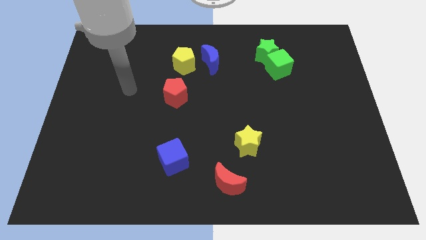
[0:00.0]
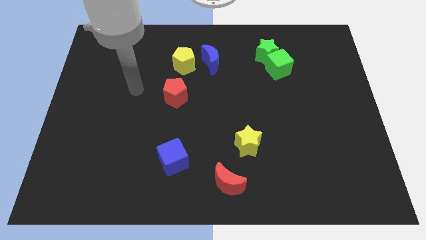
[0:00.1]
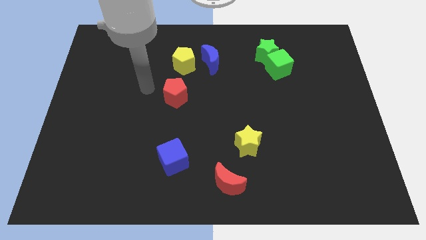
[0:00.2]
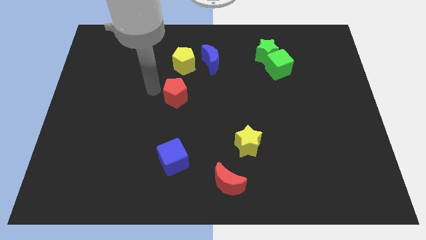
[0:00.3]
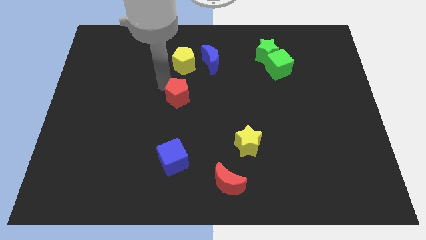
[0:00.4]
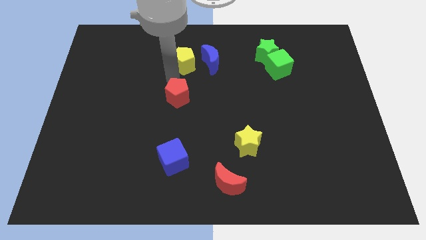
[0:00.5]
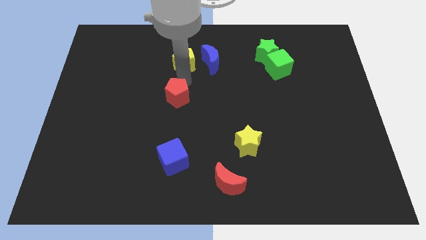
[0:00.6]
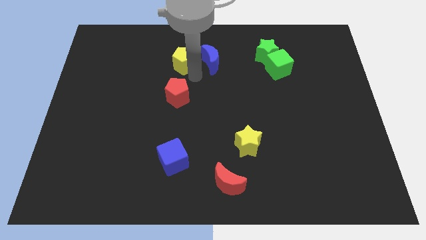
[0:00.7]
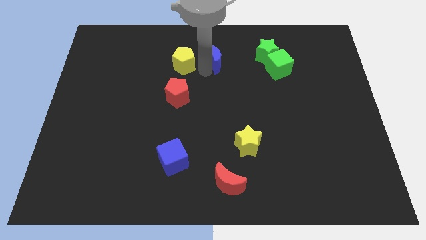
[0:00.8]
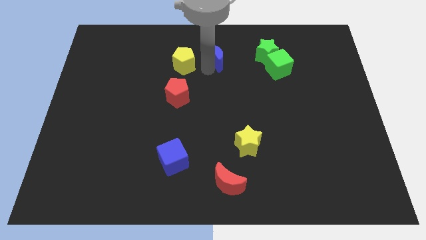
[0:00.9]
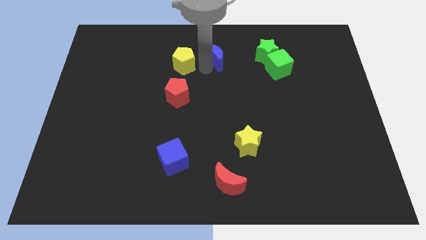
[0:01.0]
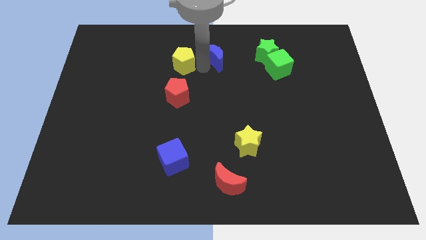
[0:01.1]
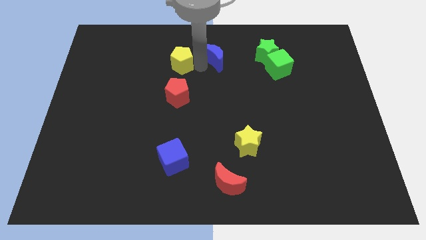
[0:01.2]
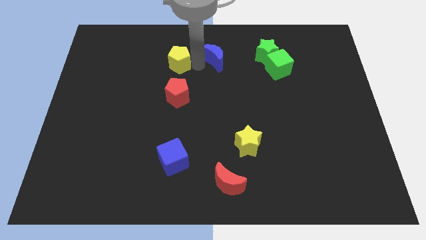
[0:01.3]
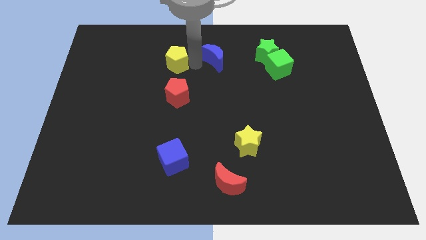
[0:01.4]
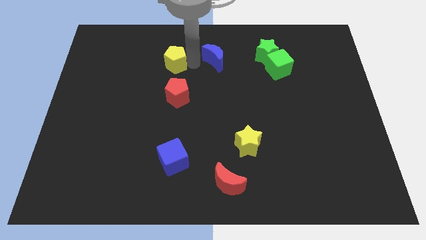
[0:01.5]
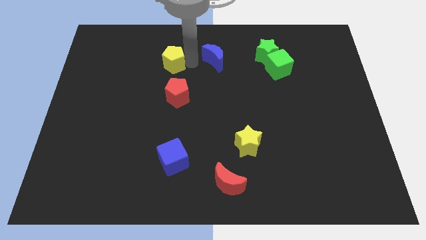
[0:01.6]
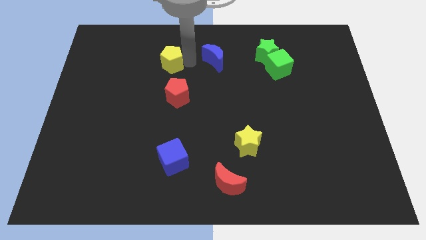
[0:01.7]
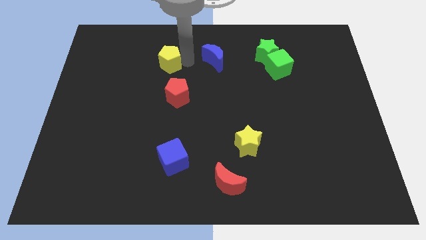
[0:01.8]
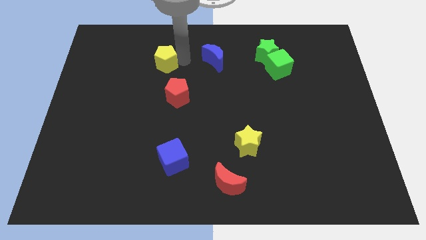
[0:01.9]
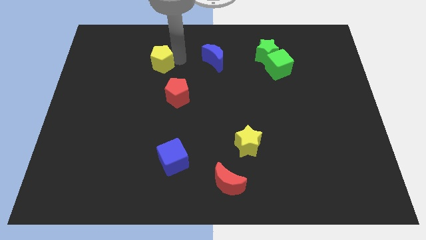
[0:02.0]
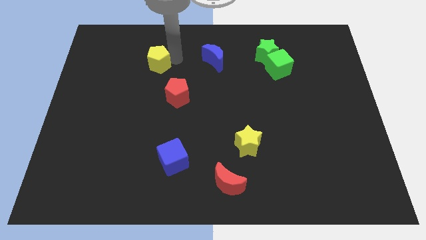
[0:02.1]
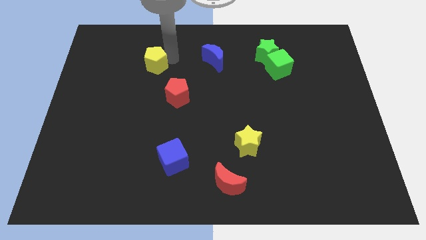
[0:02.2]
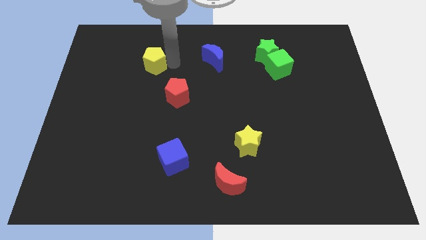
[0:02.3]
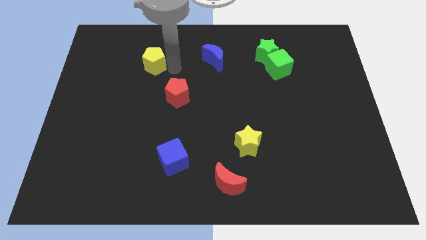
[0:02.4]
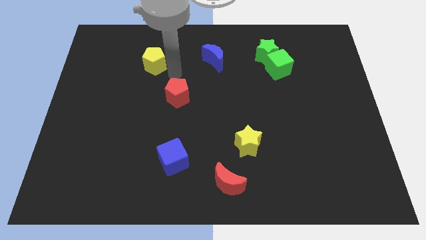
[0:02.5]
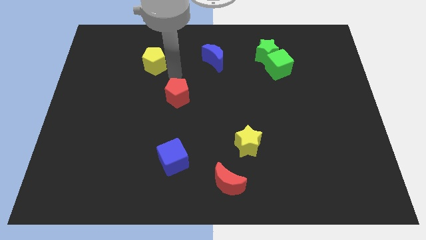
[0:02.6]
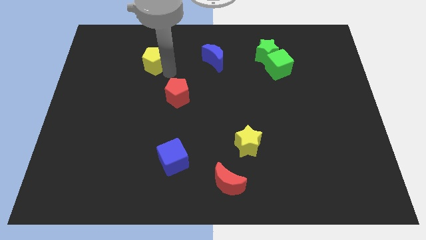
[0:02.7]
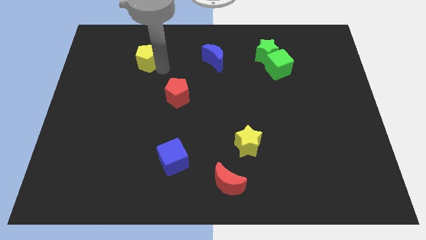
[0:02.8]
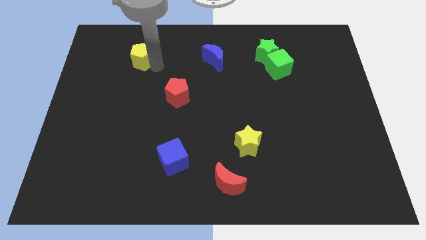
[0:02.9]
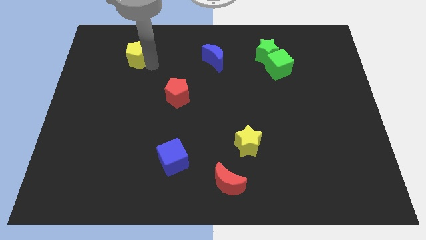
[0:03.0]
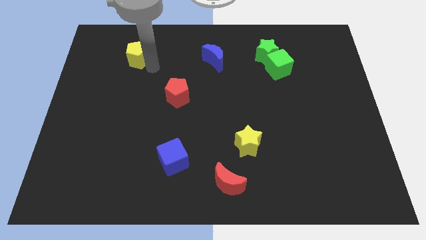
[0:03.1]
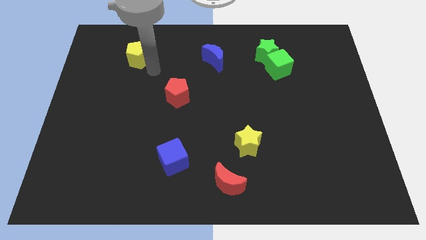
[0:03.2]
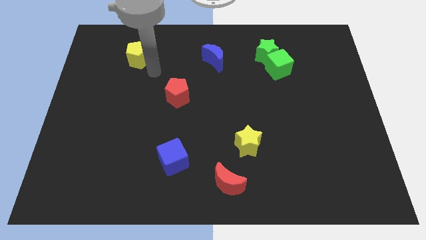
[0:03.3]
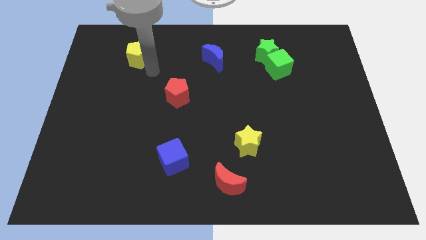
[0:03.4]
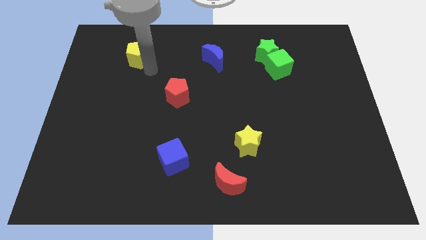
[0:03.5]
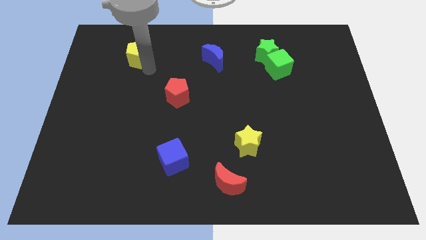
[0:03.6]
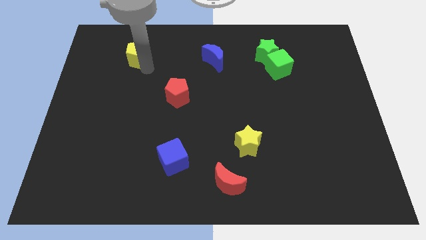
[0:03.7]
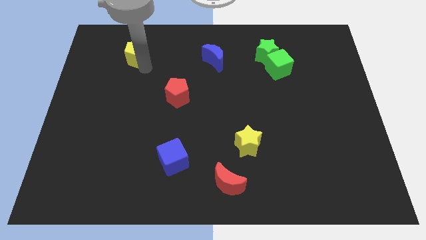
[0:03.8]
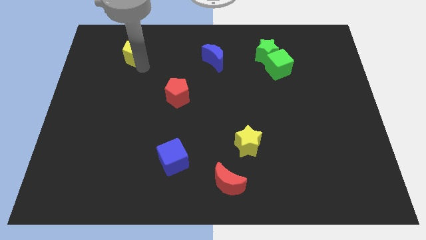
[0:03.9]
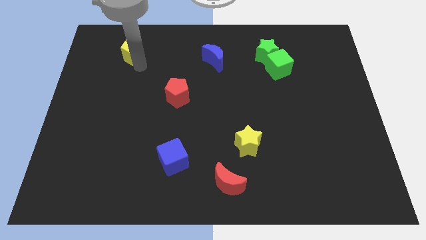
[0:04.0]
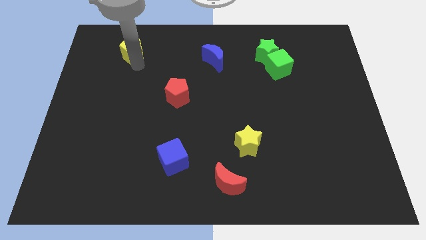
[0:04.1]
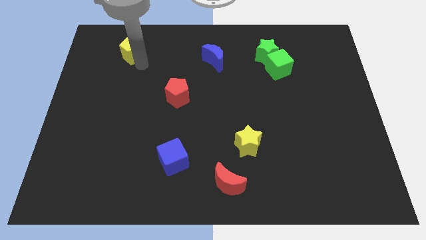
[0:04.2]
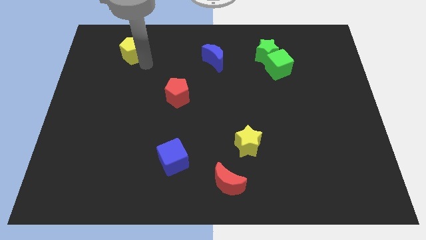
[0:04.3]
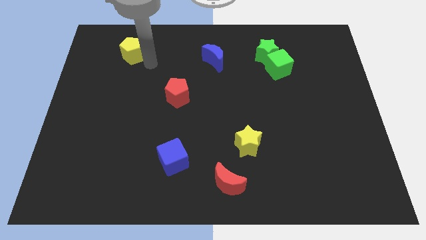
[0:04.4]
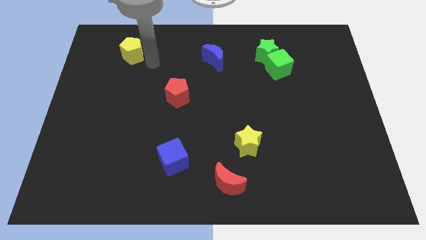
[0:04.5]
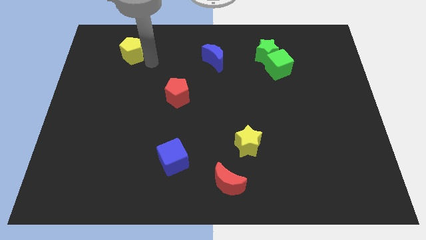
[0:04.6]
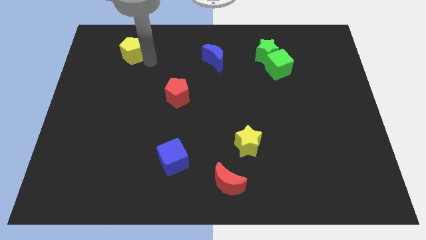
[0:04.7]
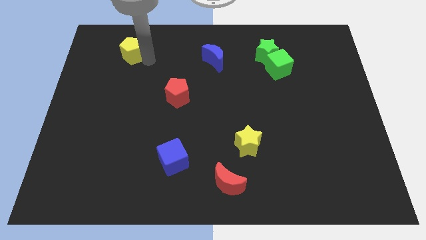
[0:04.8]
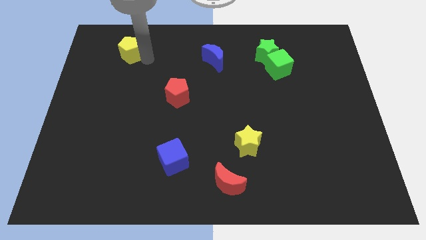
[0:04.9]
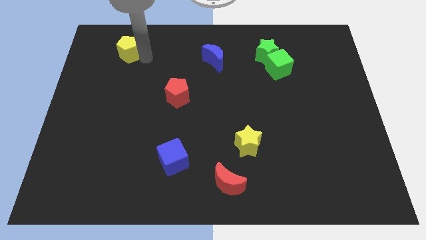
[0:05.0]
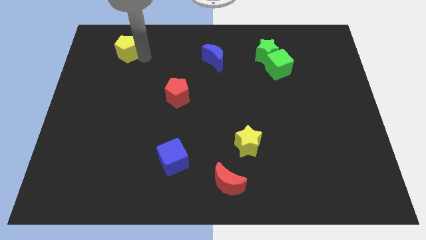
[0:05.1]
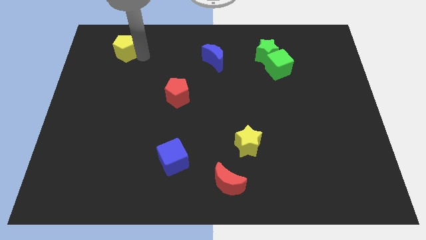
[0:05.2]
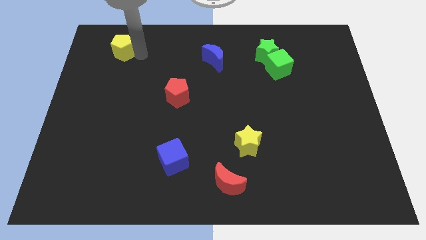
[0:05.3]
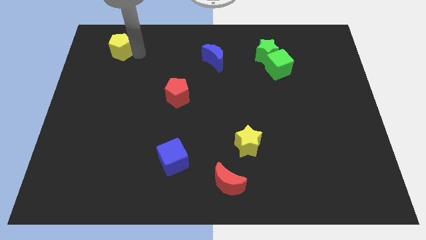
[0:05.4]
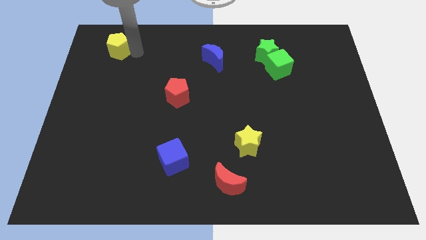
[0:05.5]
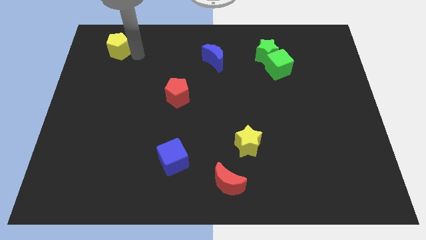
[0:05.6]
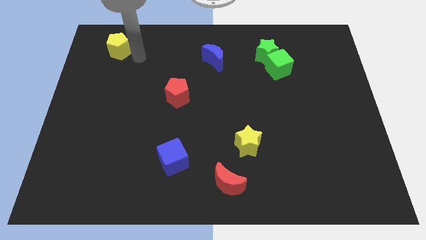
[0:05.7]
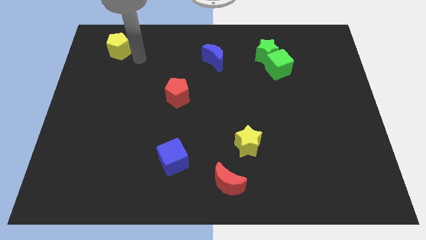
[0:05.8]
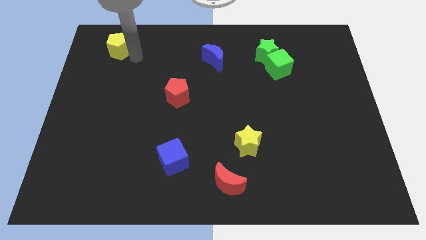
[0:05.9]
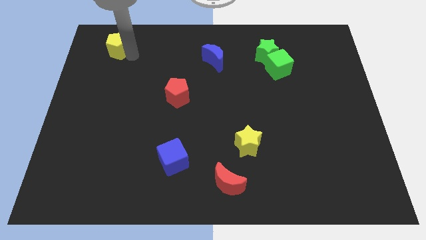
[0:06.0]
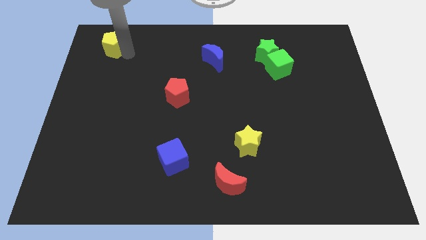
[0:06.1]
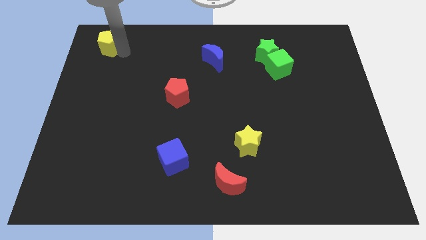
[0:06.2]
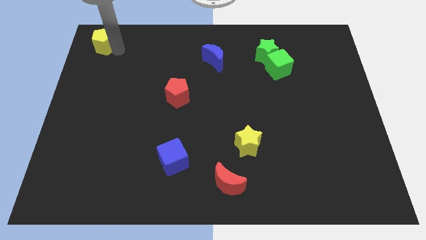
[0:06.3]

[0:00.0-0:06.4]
slide the yellow pentagon to the top left of the board

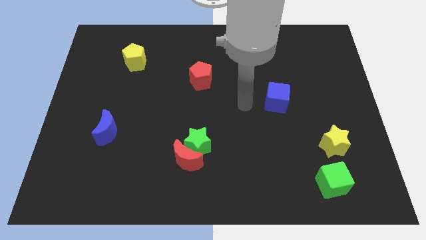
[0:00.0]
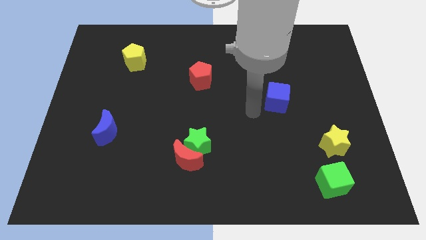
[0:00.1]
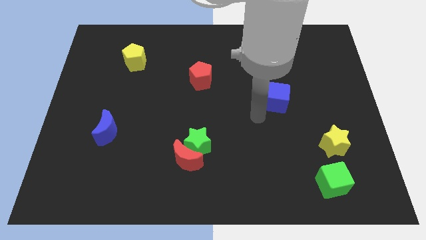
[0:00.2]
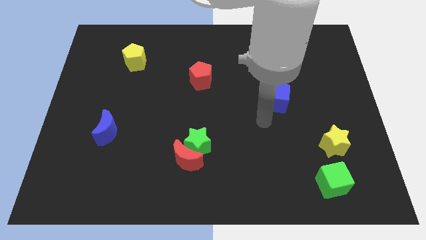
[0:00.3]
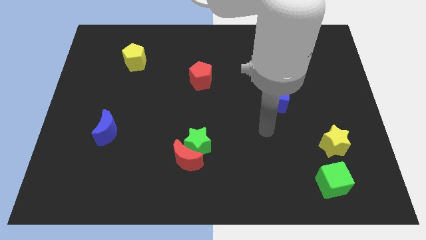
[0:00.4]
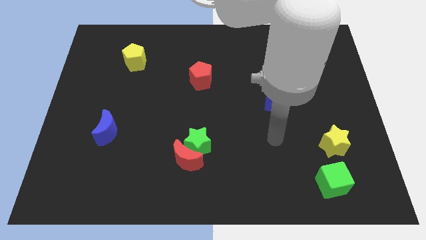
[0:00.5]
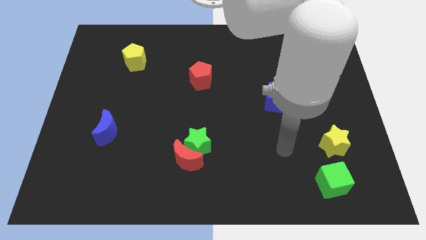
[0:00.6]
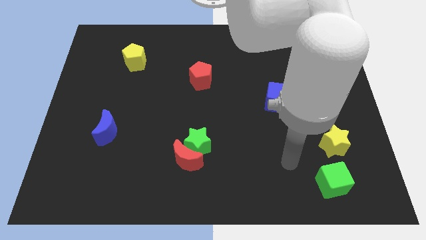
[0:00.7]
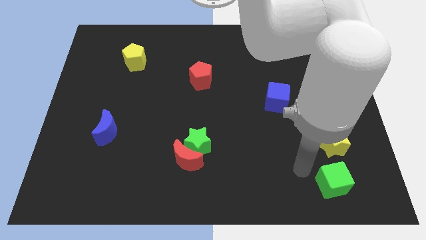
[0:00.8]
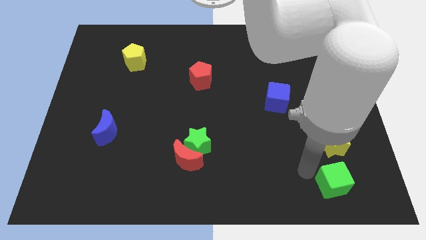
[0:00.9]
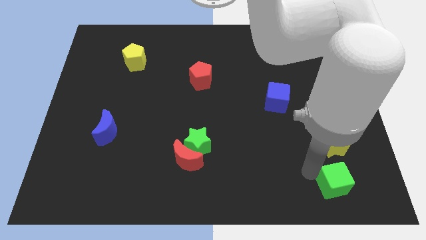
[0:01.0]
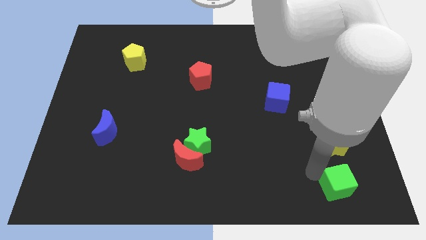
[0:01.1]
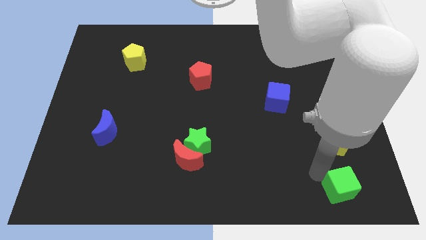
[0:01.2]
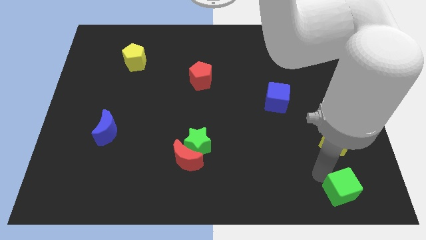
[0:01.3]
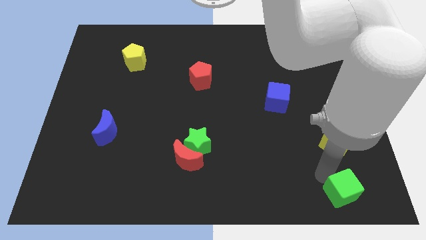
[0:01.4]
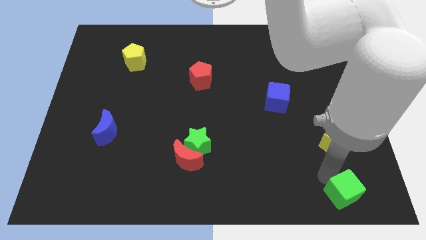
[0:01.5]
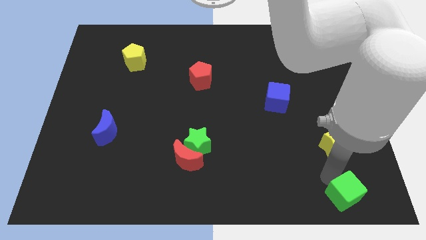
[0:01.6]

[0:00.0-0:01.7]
push the green cube to the lower right corner
